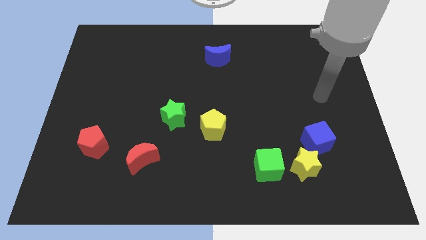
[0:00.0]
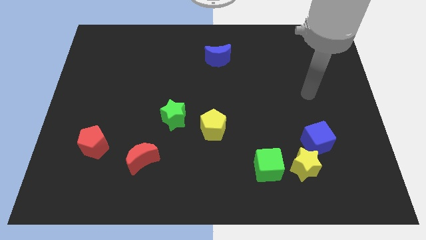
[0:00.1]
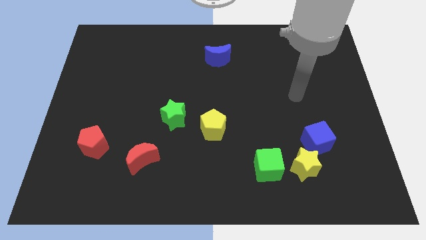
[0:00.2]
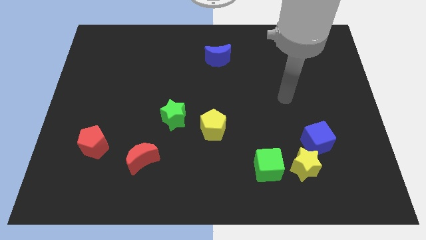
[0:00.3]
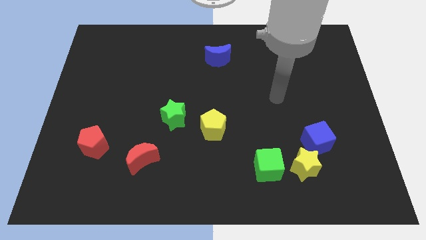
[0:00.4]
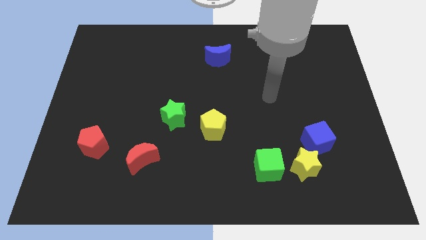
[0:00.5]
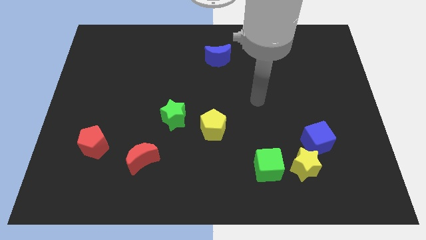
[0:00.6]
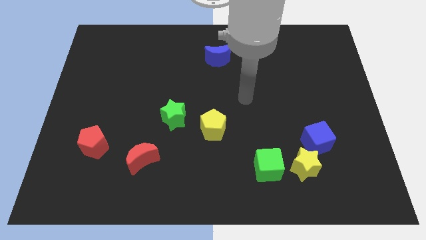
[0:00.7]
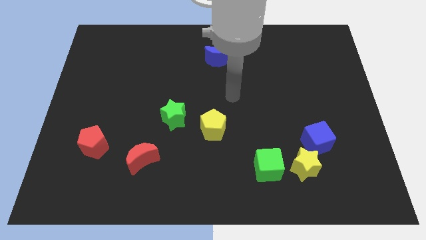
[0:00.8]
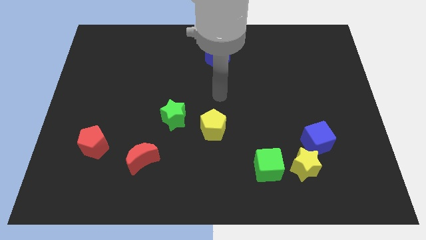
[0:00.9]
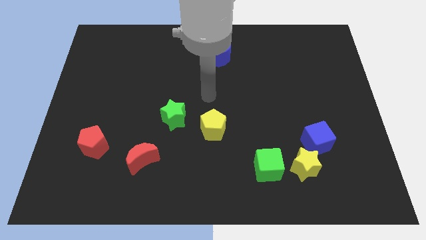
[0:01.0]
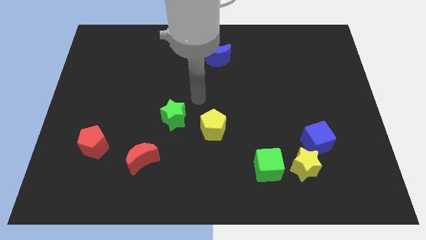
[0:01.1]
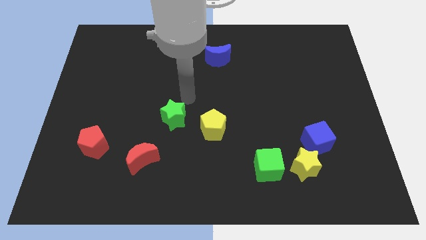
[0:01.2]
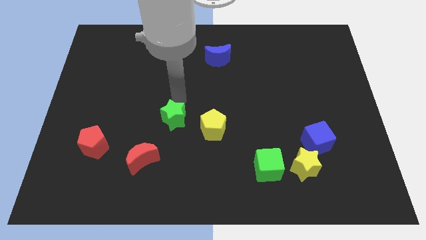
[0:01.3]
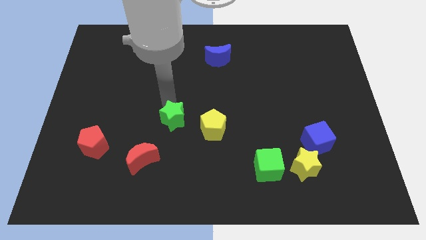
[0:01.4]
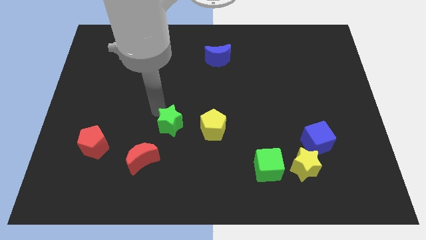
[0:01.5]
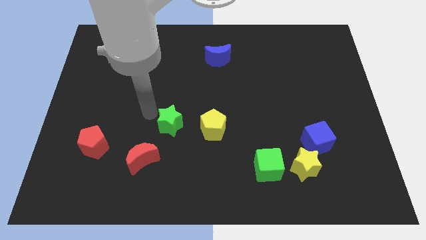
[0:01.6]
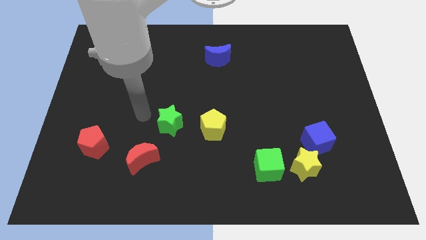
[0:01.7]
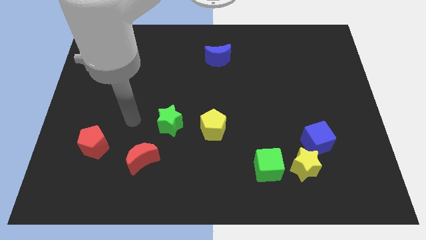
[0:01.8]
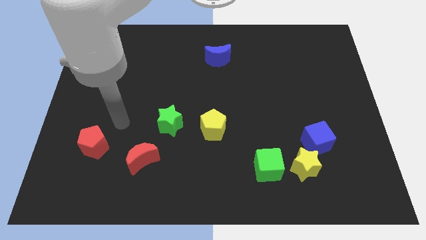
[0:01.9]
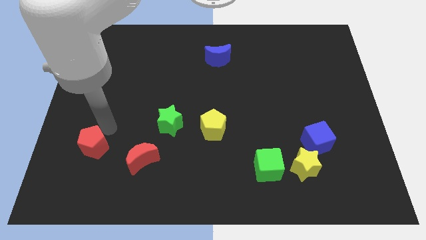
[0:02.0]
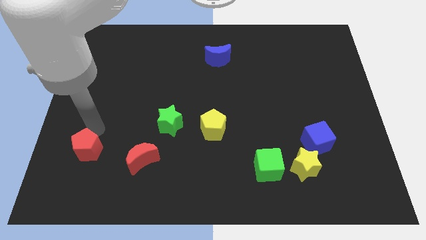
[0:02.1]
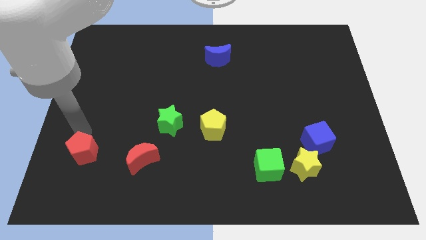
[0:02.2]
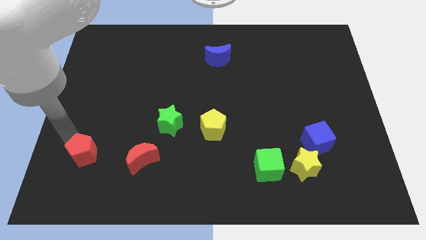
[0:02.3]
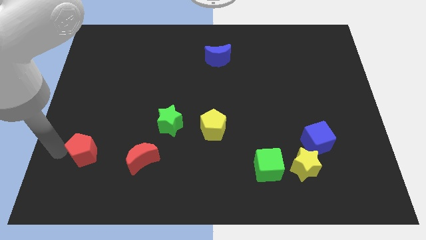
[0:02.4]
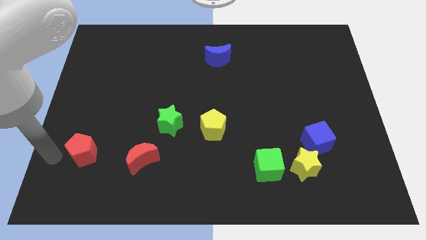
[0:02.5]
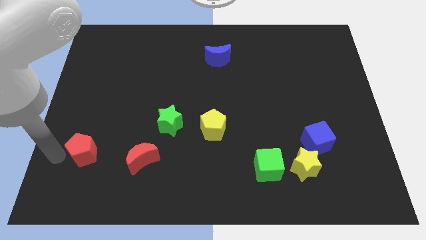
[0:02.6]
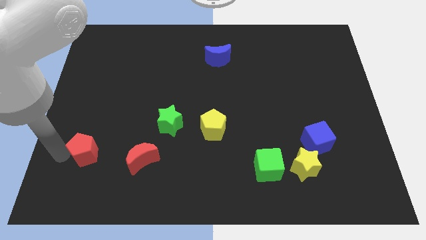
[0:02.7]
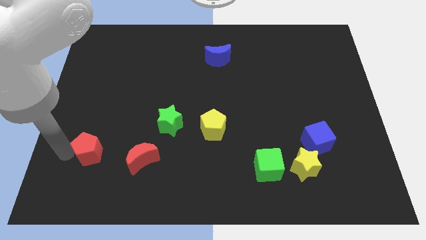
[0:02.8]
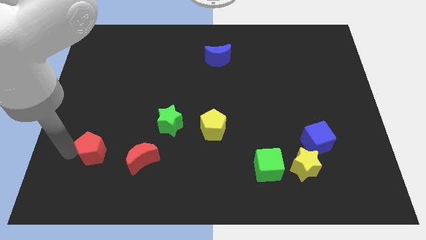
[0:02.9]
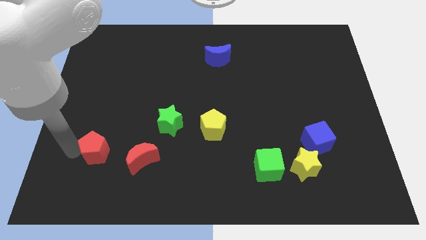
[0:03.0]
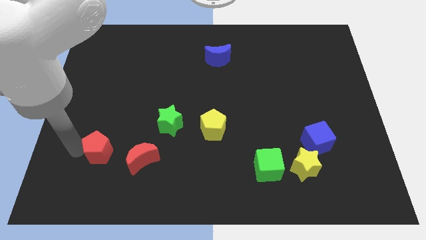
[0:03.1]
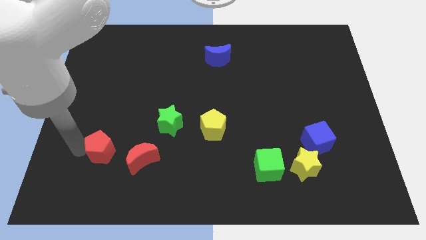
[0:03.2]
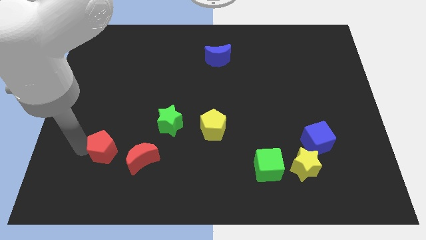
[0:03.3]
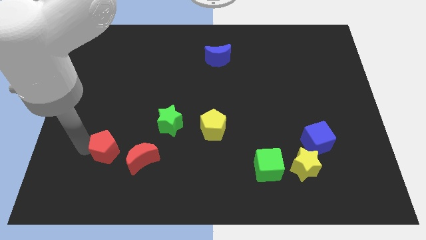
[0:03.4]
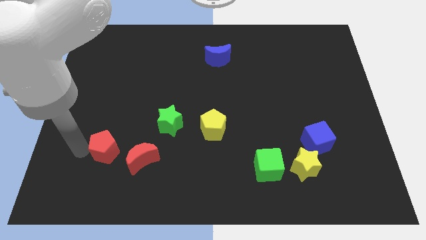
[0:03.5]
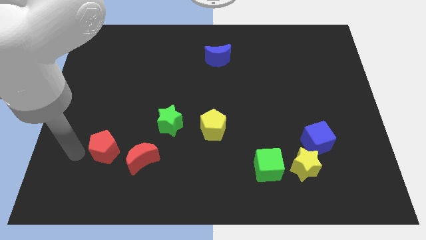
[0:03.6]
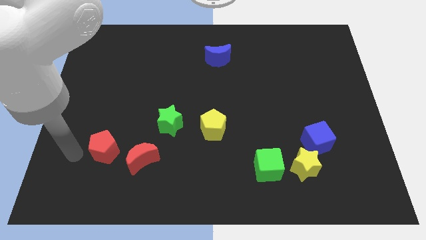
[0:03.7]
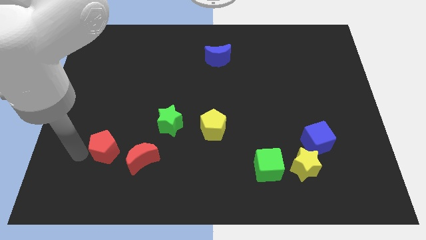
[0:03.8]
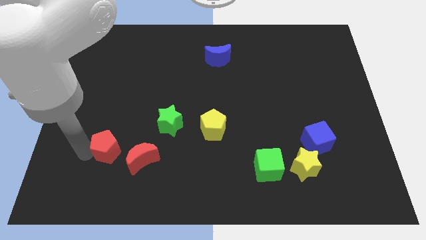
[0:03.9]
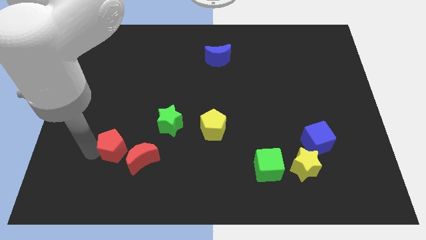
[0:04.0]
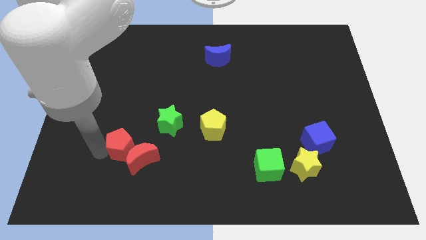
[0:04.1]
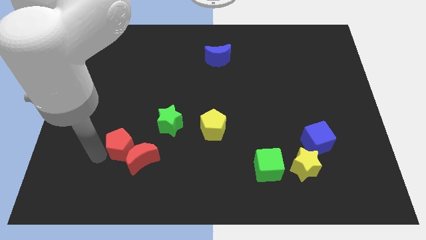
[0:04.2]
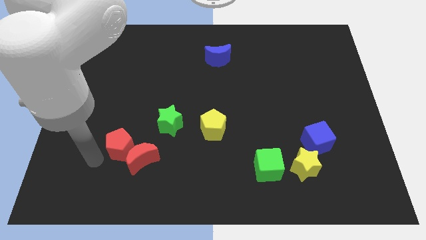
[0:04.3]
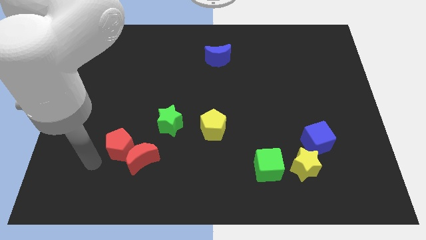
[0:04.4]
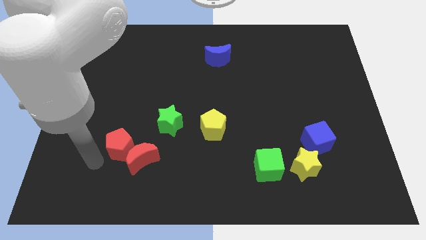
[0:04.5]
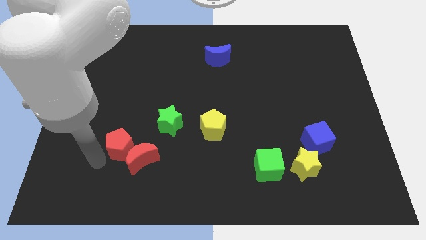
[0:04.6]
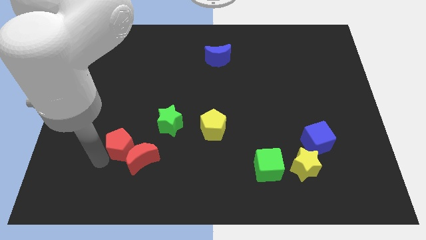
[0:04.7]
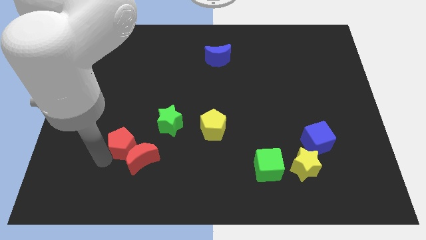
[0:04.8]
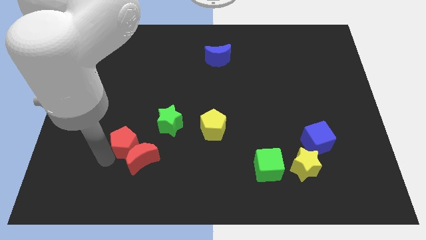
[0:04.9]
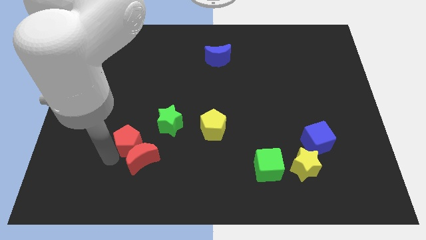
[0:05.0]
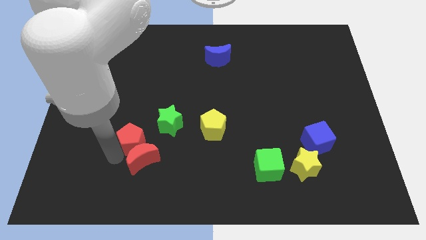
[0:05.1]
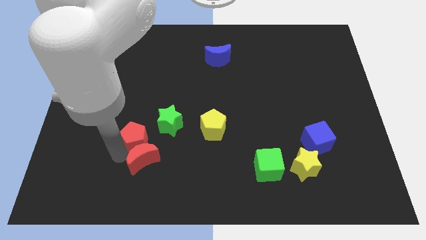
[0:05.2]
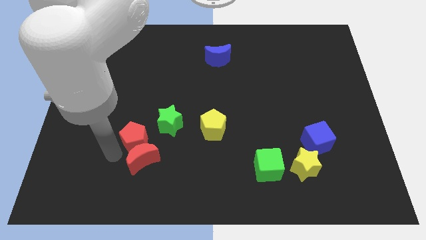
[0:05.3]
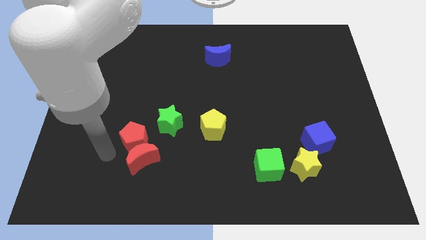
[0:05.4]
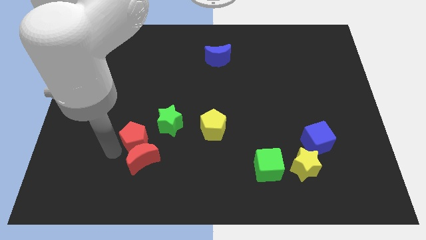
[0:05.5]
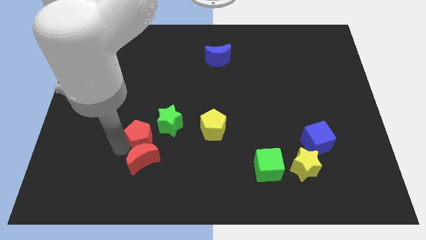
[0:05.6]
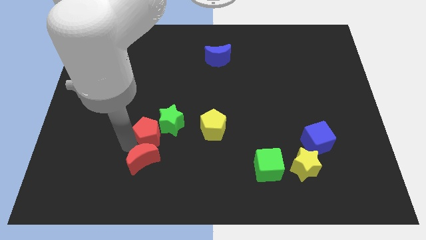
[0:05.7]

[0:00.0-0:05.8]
move the red pentagon to the left side of the yellow pentagon

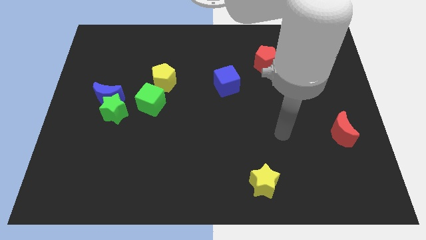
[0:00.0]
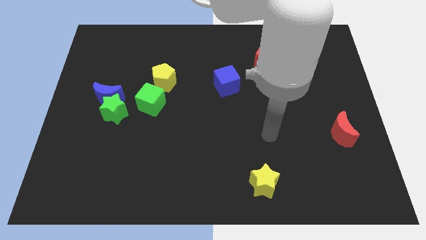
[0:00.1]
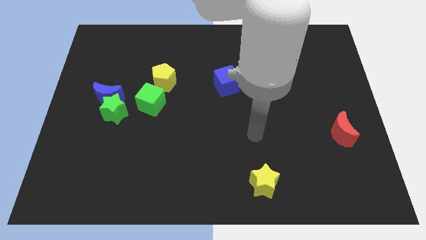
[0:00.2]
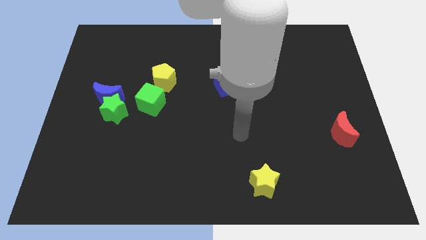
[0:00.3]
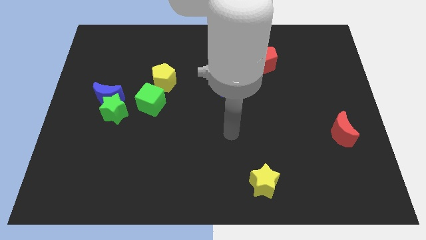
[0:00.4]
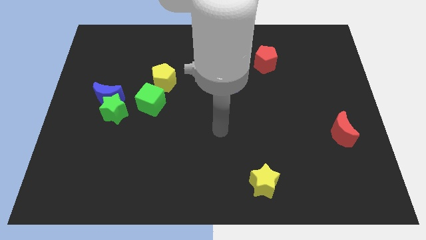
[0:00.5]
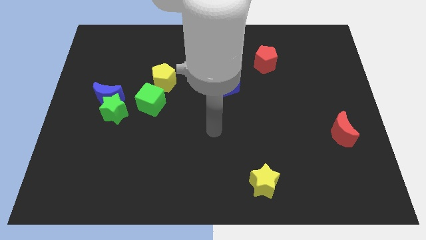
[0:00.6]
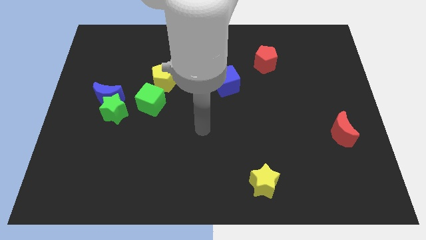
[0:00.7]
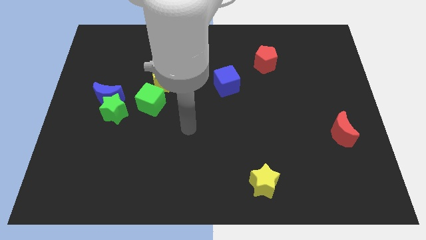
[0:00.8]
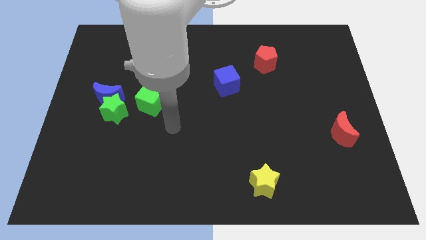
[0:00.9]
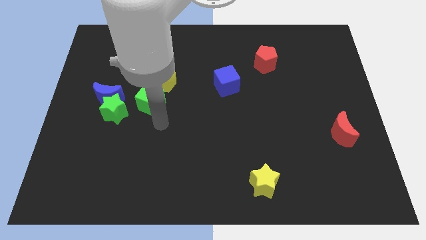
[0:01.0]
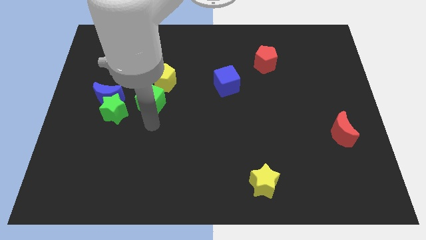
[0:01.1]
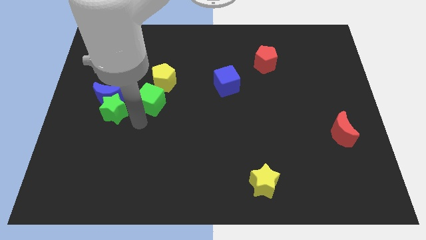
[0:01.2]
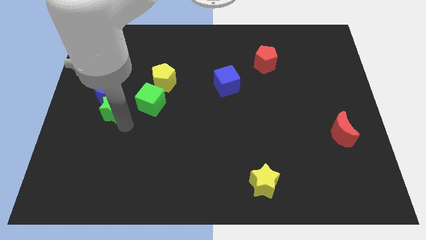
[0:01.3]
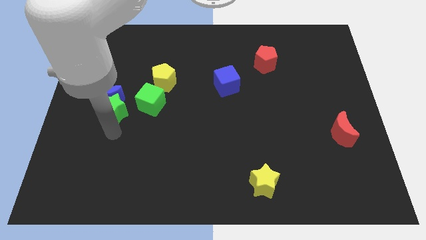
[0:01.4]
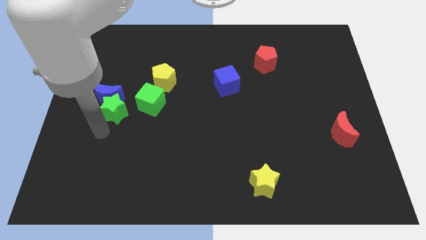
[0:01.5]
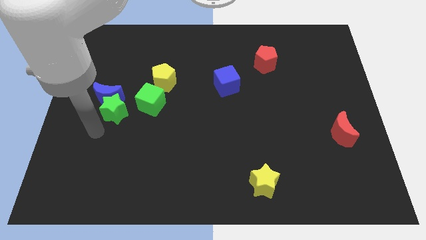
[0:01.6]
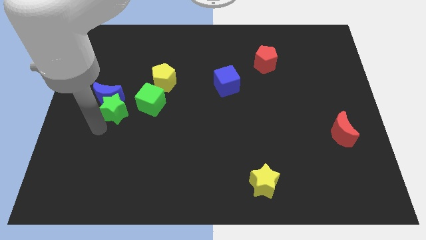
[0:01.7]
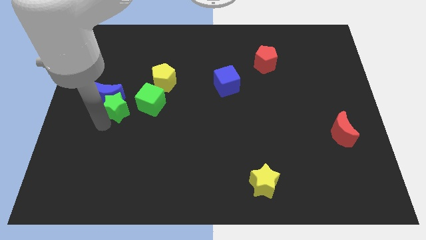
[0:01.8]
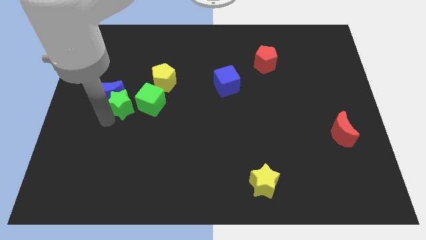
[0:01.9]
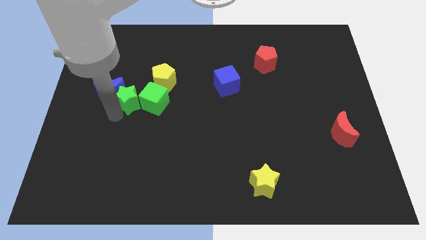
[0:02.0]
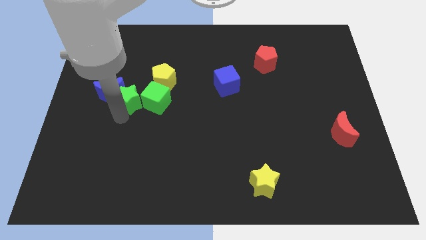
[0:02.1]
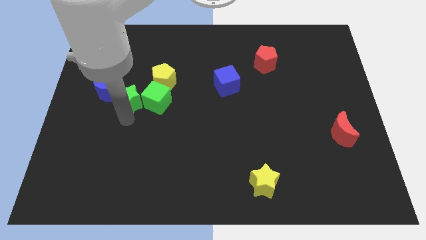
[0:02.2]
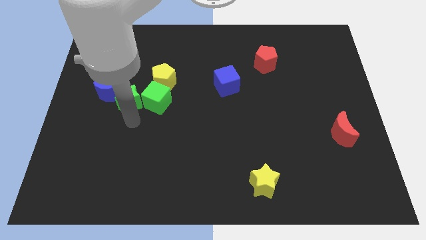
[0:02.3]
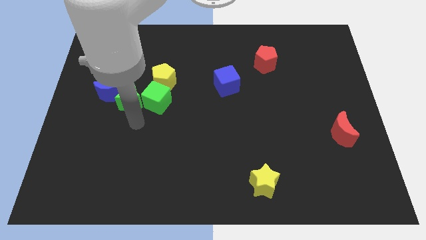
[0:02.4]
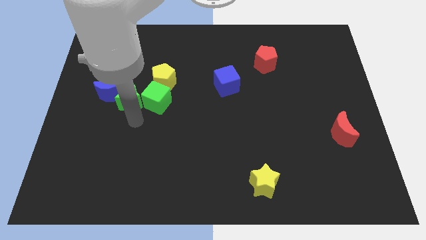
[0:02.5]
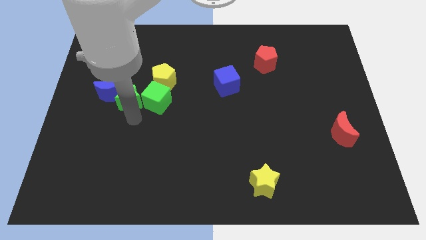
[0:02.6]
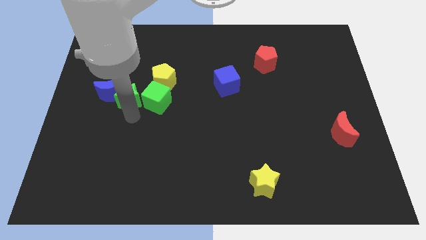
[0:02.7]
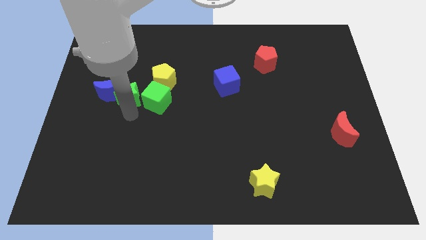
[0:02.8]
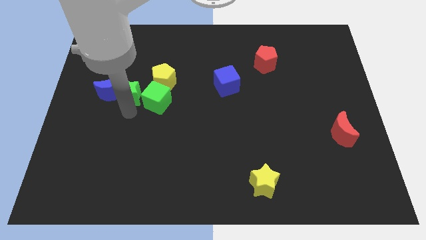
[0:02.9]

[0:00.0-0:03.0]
slide the green star just left of the yellow pentagon
